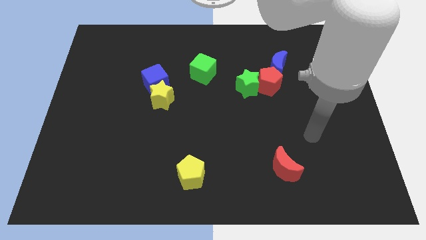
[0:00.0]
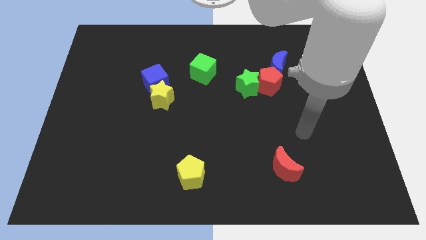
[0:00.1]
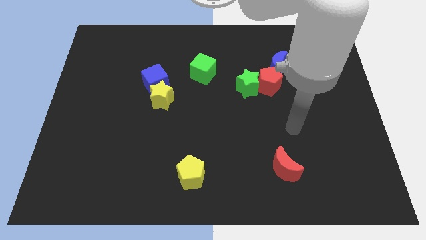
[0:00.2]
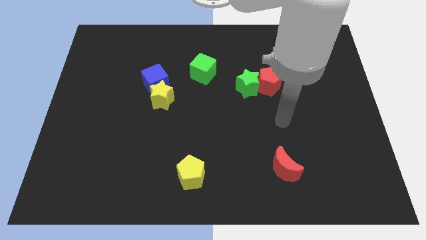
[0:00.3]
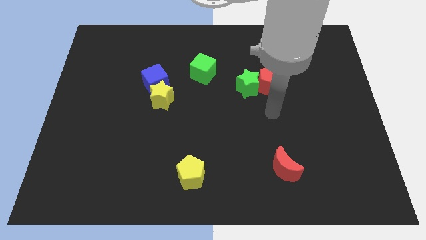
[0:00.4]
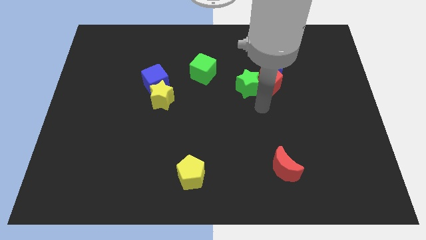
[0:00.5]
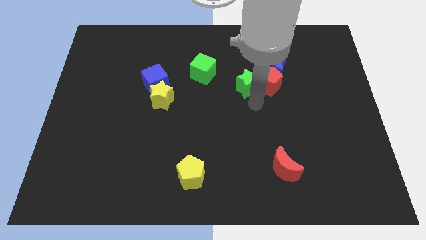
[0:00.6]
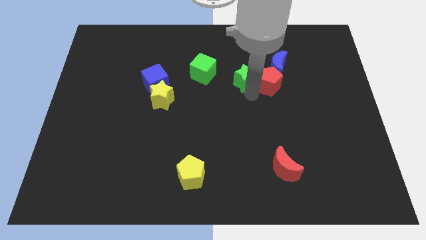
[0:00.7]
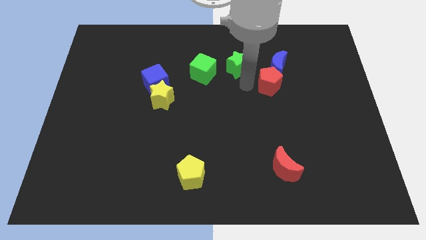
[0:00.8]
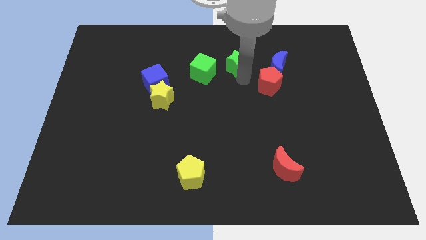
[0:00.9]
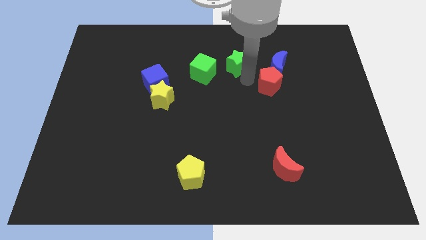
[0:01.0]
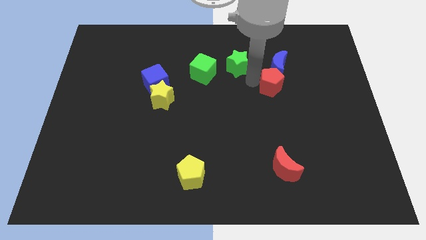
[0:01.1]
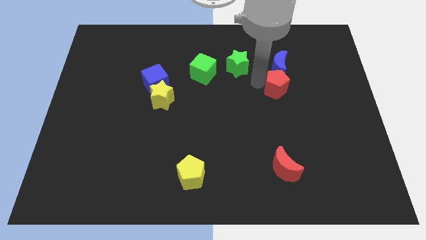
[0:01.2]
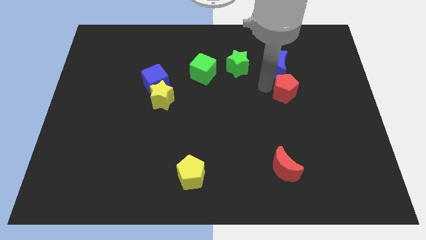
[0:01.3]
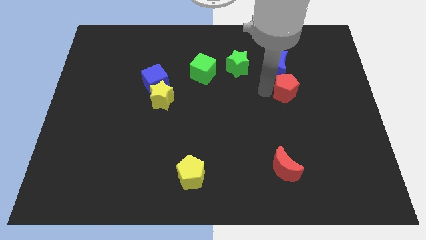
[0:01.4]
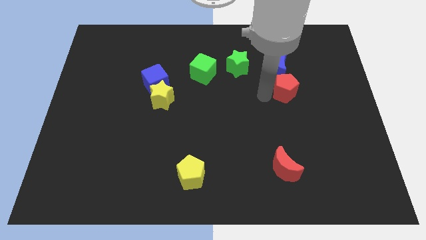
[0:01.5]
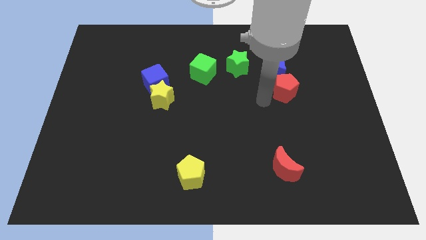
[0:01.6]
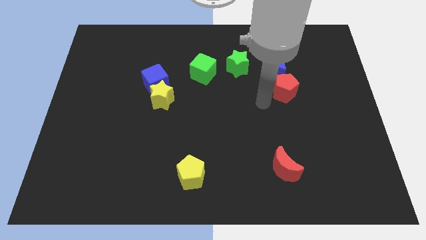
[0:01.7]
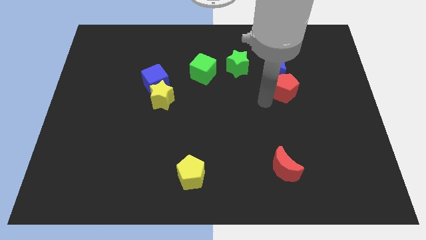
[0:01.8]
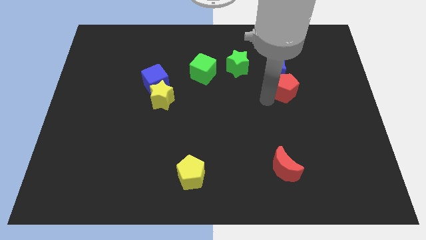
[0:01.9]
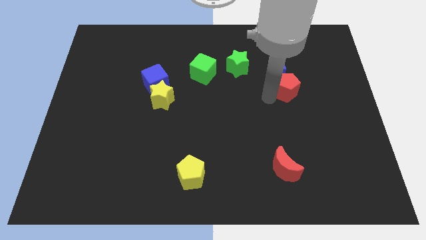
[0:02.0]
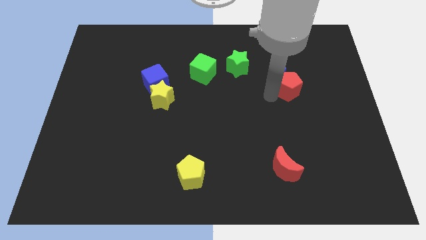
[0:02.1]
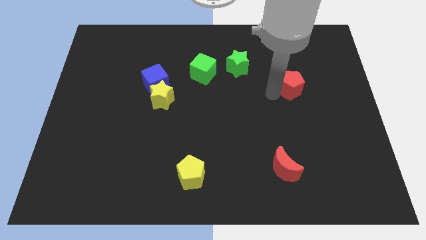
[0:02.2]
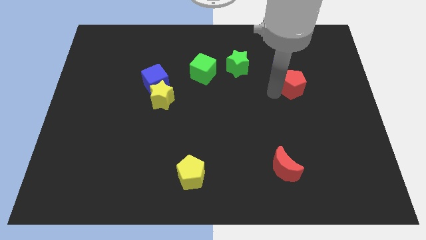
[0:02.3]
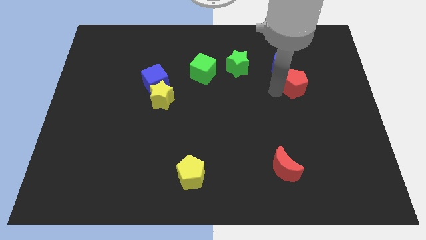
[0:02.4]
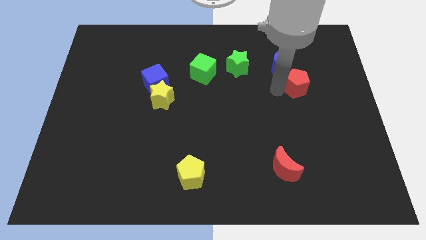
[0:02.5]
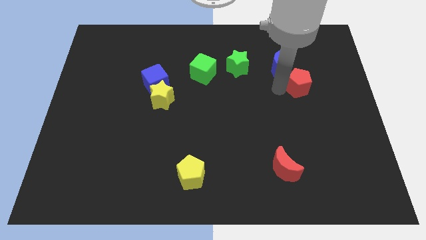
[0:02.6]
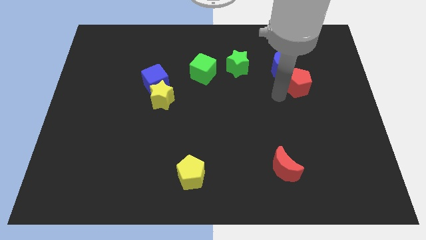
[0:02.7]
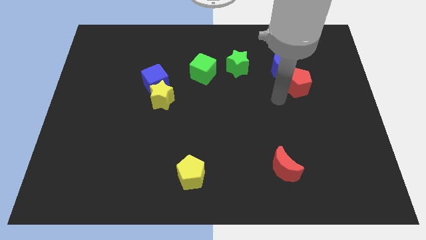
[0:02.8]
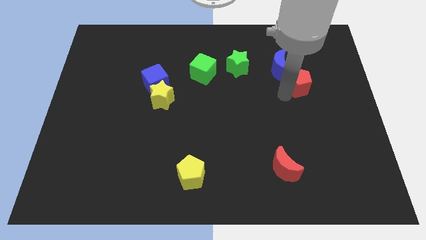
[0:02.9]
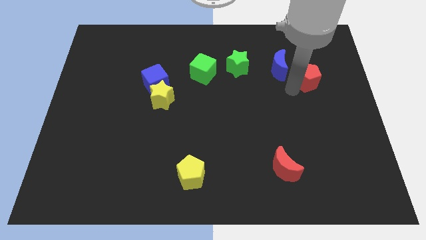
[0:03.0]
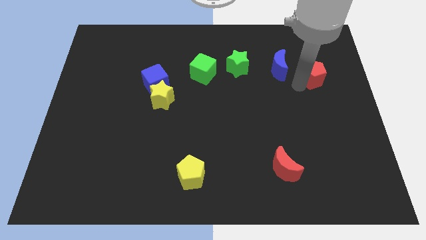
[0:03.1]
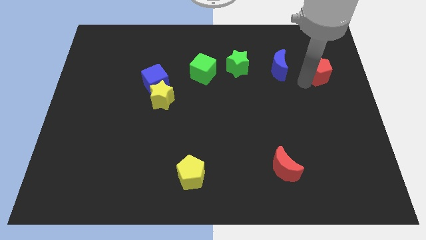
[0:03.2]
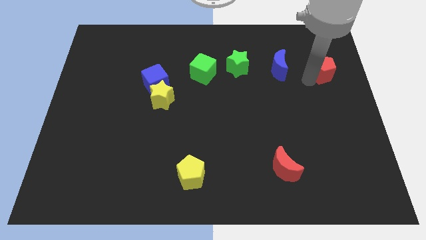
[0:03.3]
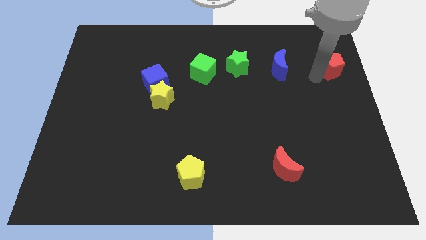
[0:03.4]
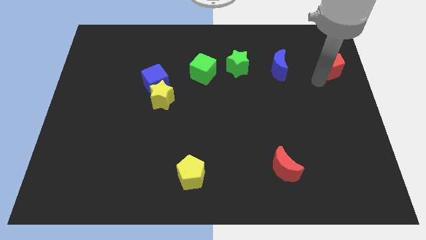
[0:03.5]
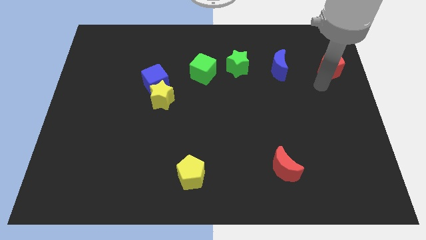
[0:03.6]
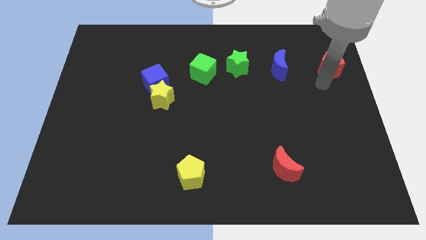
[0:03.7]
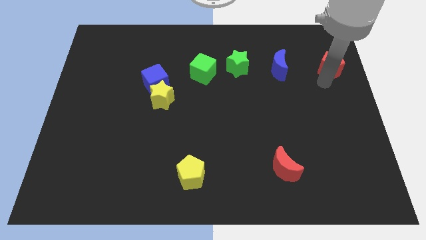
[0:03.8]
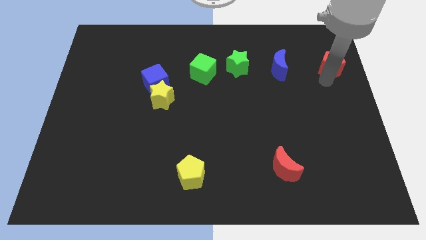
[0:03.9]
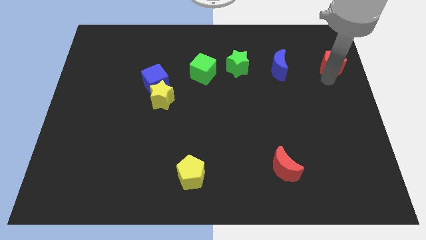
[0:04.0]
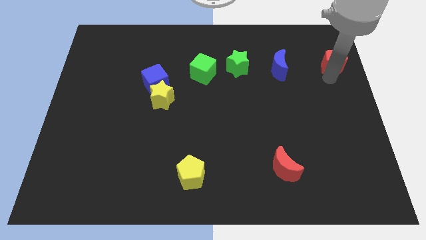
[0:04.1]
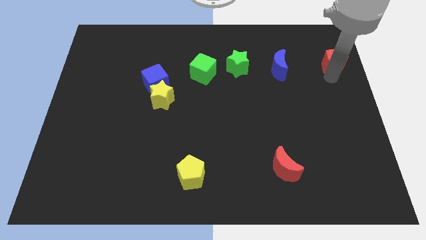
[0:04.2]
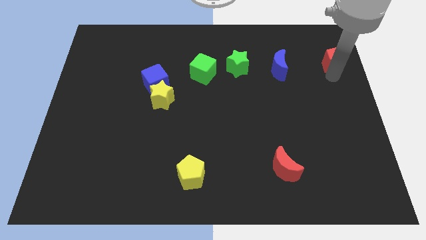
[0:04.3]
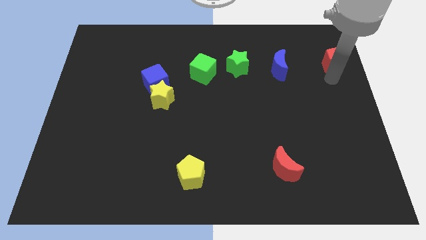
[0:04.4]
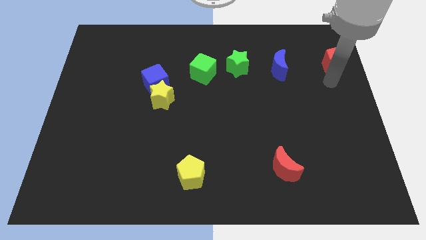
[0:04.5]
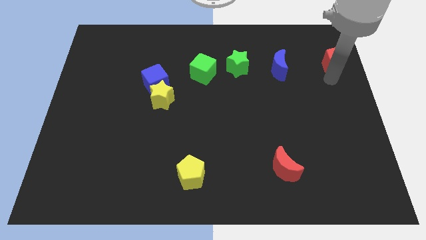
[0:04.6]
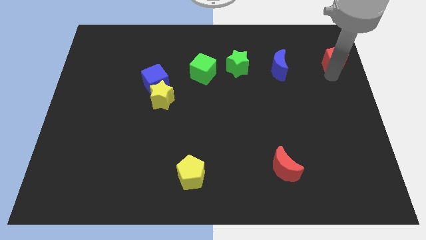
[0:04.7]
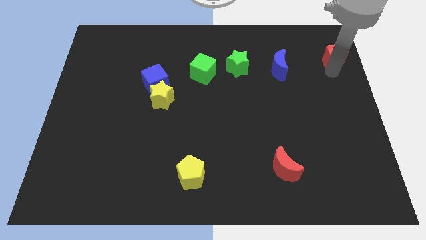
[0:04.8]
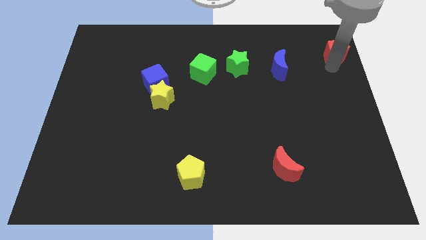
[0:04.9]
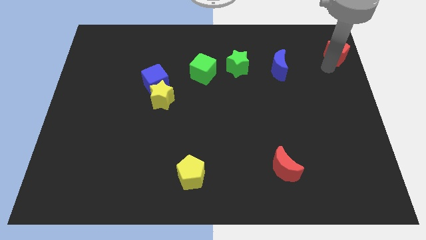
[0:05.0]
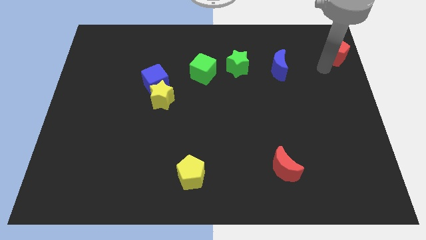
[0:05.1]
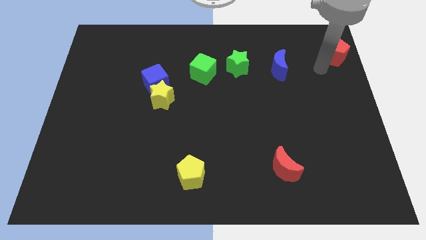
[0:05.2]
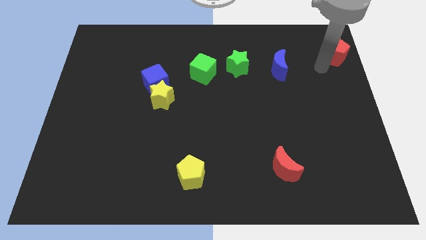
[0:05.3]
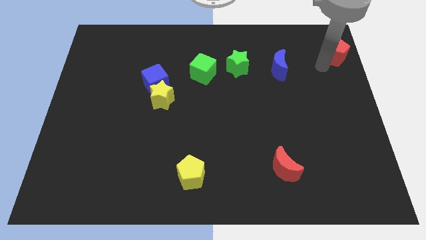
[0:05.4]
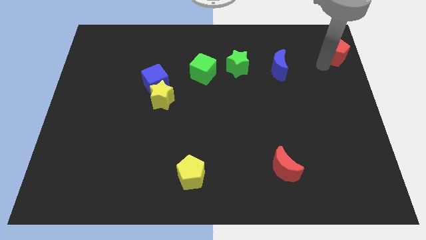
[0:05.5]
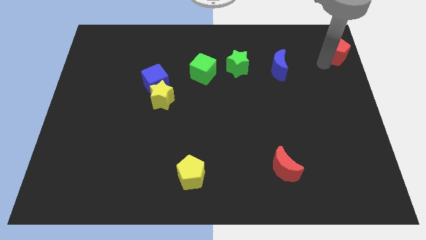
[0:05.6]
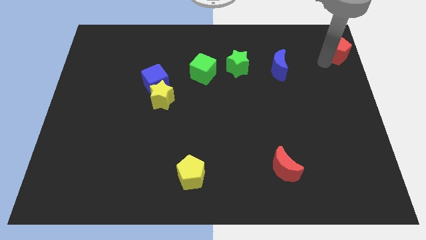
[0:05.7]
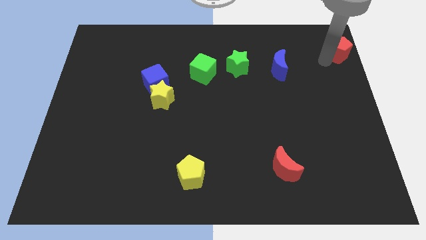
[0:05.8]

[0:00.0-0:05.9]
put the red pentagon to the top right of the board
